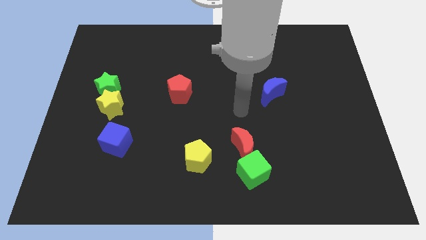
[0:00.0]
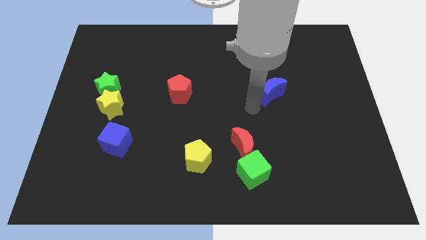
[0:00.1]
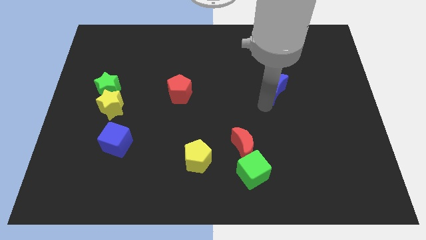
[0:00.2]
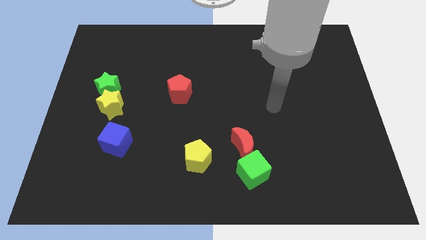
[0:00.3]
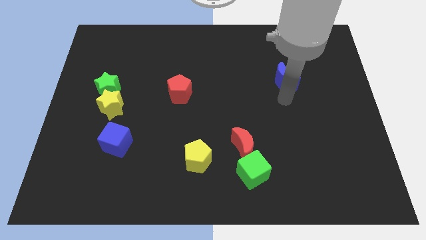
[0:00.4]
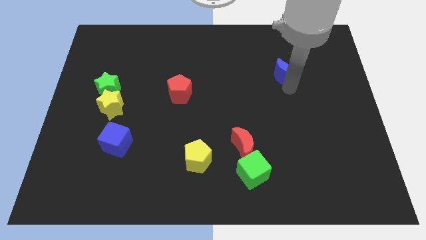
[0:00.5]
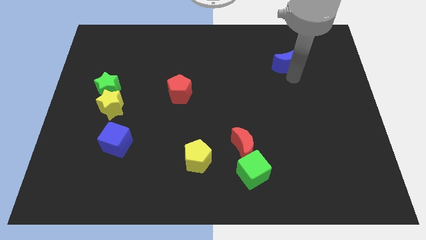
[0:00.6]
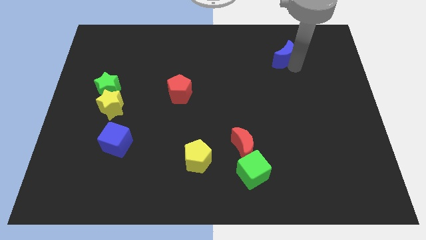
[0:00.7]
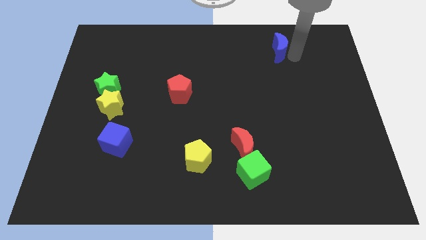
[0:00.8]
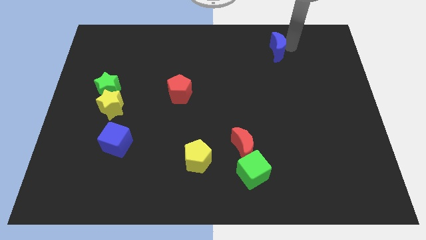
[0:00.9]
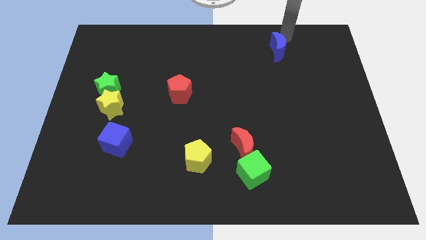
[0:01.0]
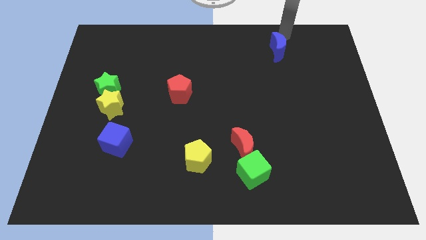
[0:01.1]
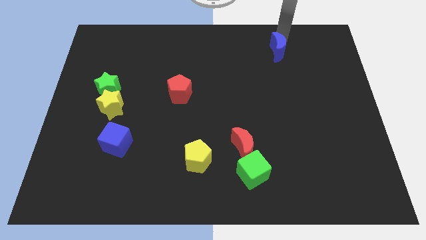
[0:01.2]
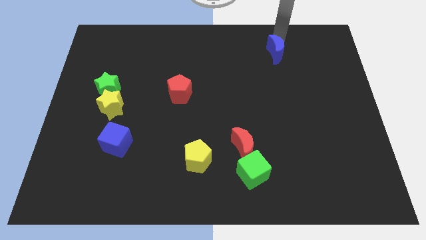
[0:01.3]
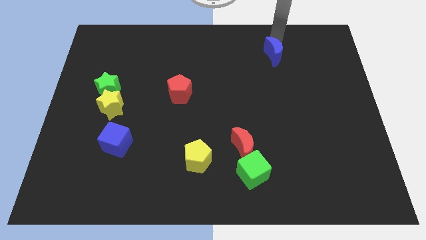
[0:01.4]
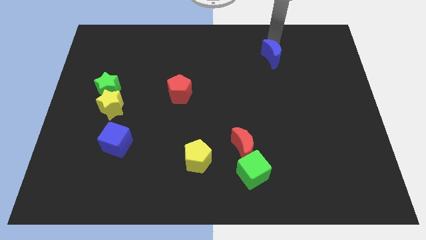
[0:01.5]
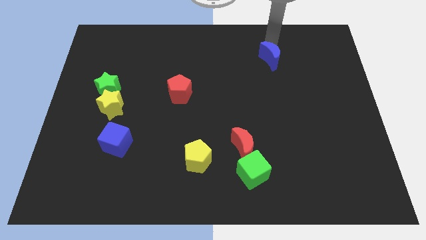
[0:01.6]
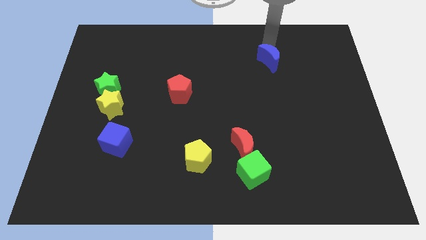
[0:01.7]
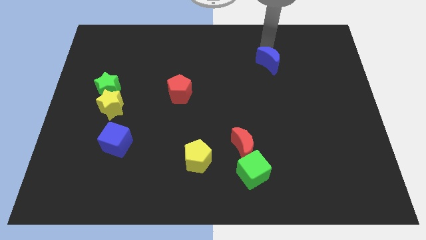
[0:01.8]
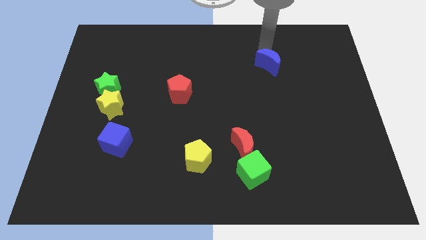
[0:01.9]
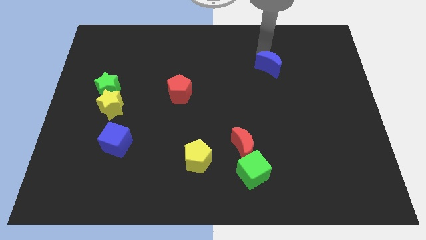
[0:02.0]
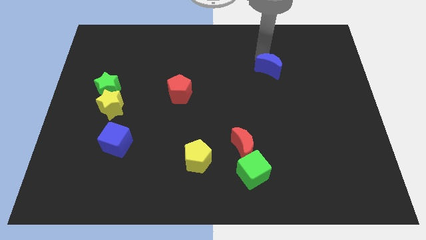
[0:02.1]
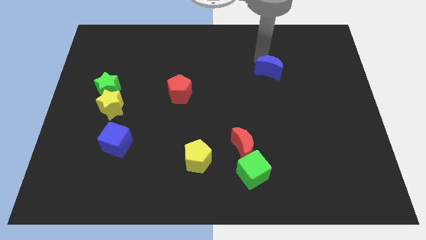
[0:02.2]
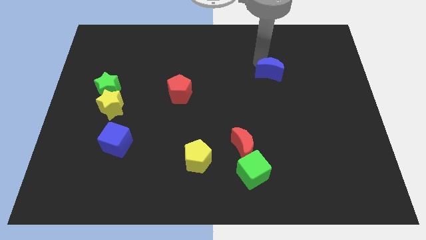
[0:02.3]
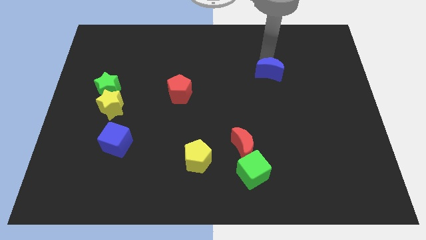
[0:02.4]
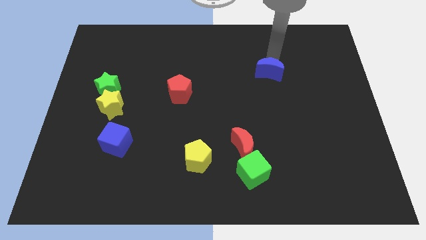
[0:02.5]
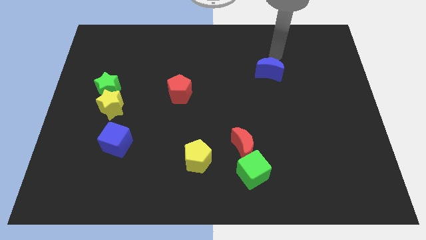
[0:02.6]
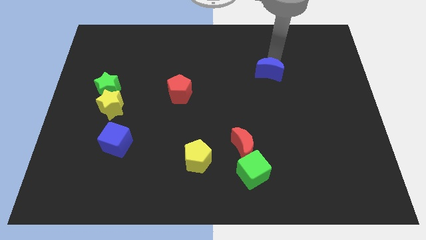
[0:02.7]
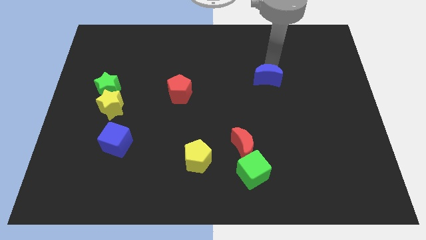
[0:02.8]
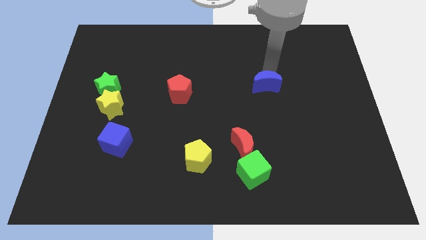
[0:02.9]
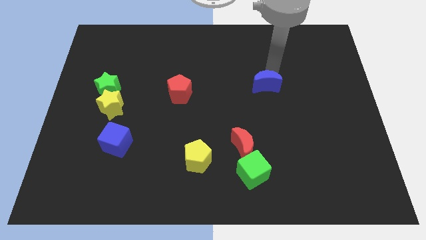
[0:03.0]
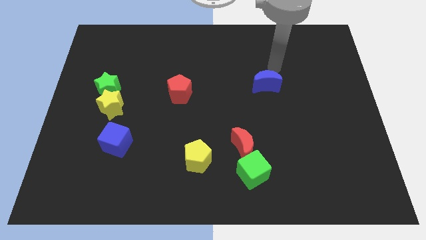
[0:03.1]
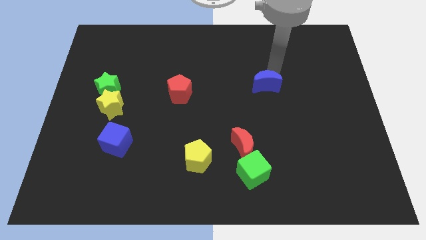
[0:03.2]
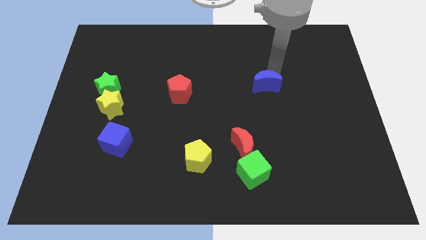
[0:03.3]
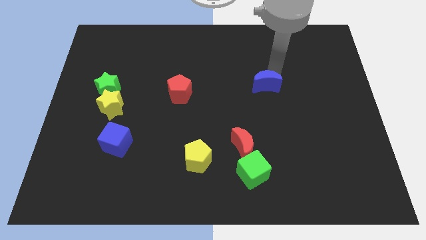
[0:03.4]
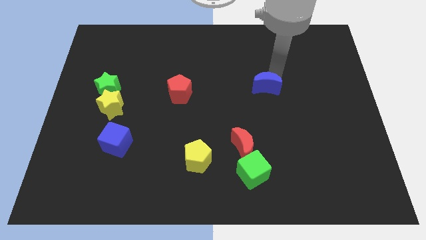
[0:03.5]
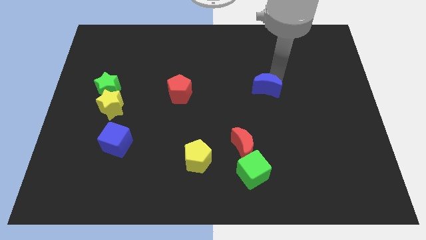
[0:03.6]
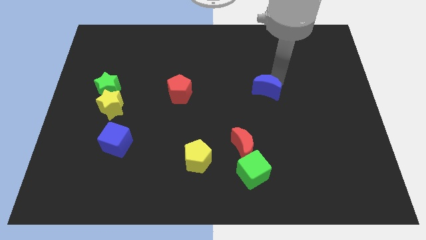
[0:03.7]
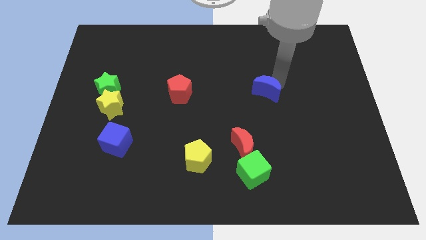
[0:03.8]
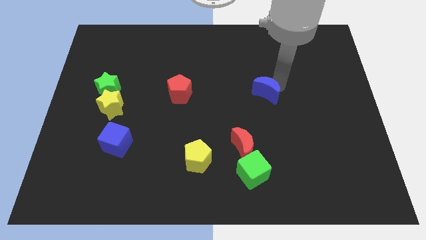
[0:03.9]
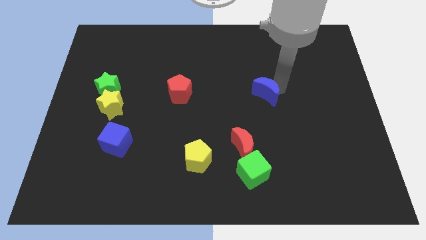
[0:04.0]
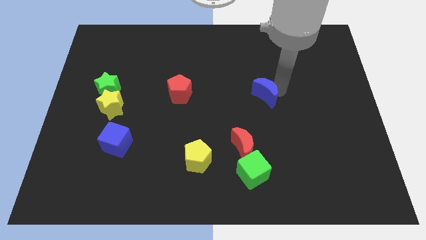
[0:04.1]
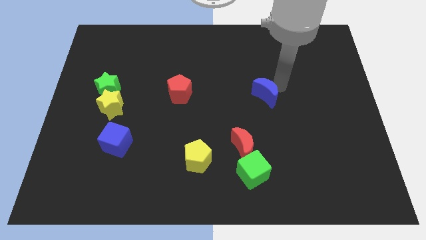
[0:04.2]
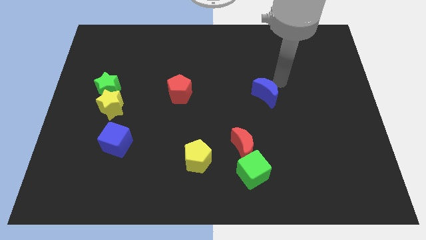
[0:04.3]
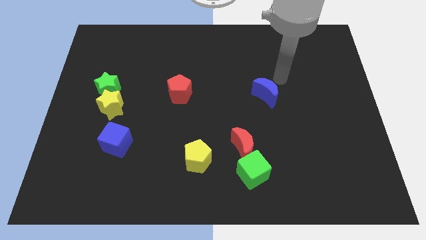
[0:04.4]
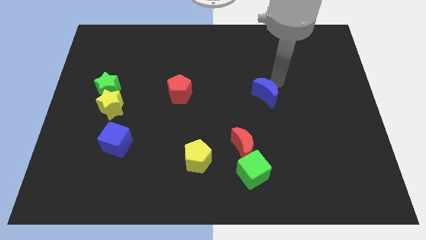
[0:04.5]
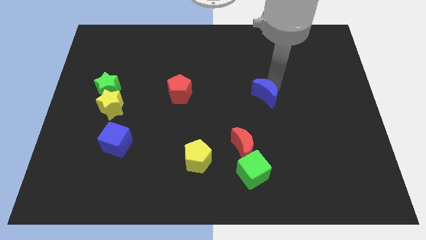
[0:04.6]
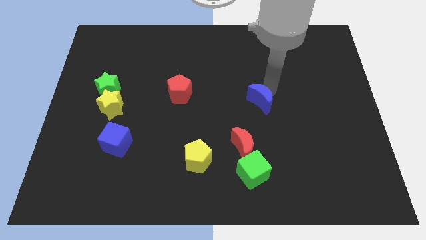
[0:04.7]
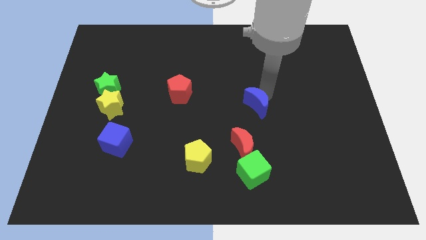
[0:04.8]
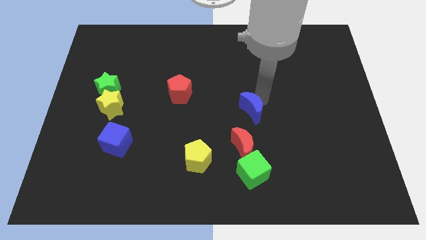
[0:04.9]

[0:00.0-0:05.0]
slightly slide the blue moon downwards and then left

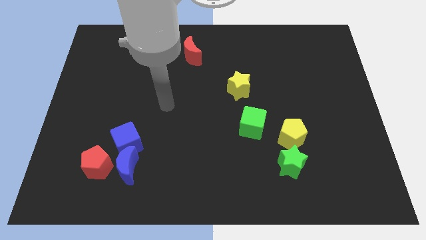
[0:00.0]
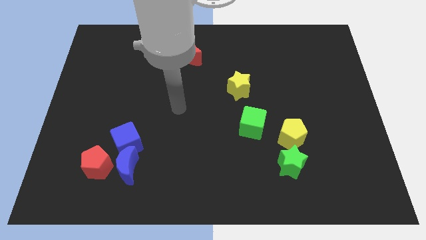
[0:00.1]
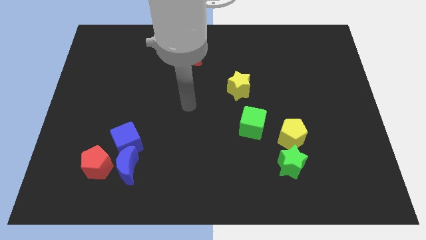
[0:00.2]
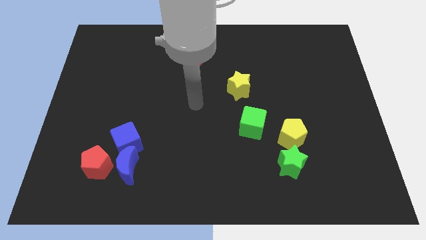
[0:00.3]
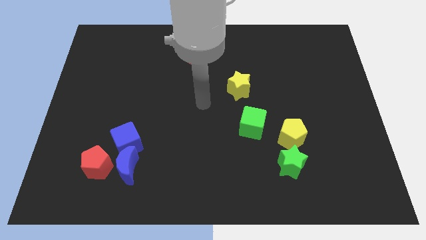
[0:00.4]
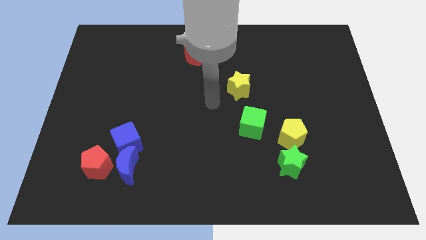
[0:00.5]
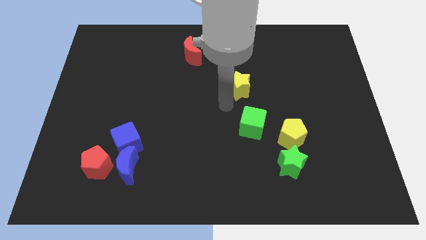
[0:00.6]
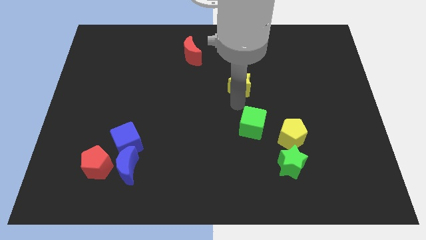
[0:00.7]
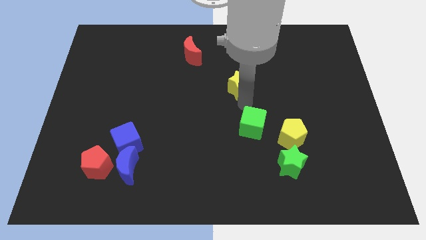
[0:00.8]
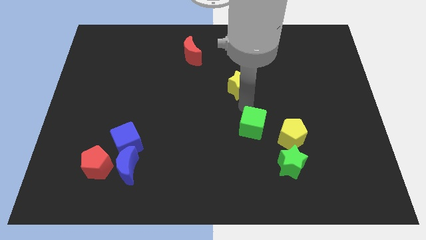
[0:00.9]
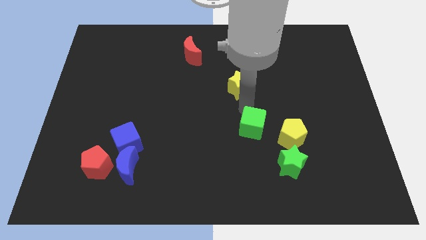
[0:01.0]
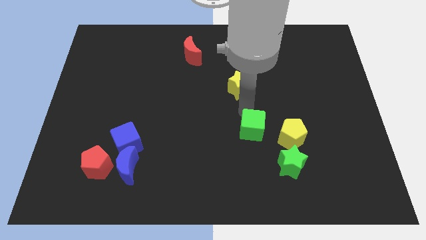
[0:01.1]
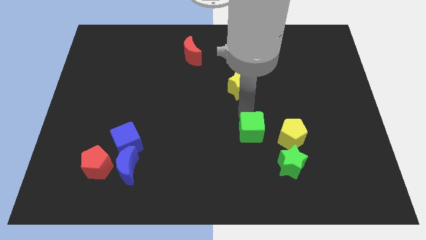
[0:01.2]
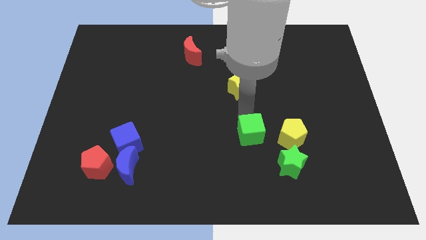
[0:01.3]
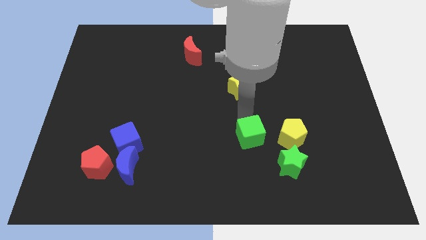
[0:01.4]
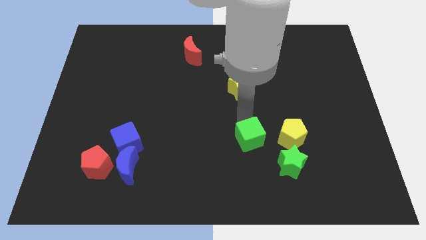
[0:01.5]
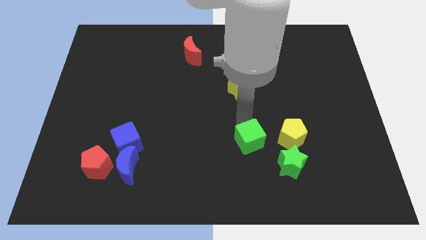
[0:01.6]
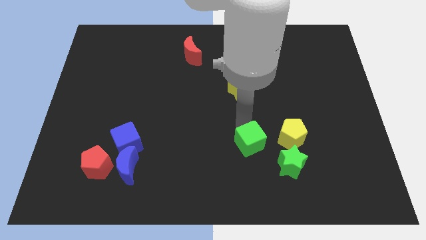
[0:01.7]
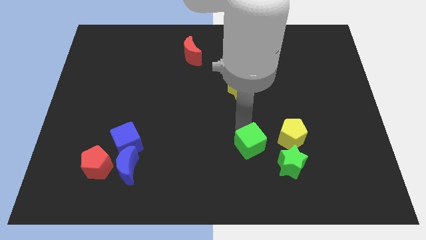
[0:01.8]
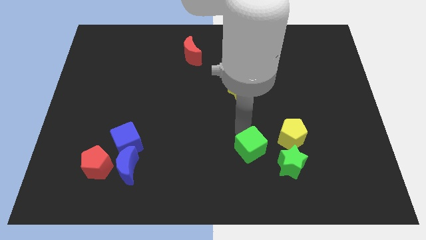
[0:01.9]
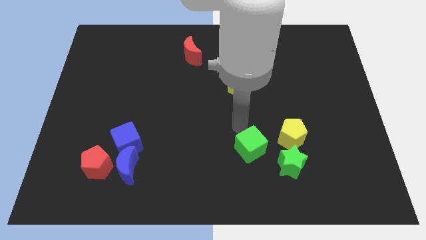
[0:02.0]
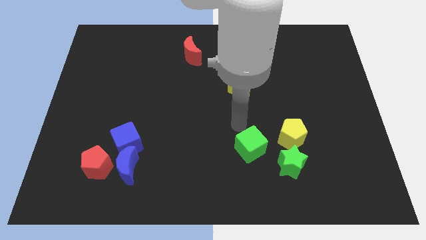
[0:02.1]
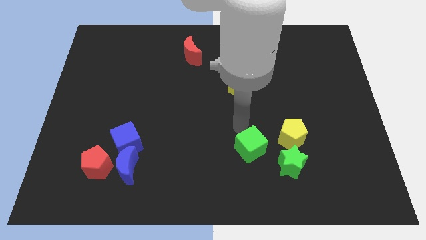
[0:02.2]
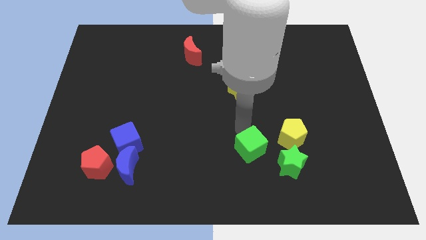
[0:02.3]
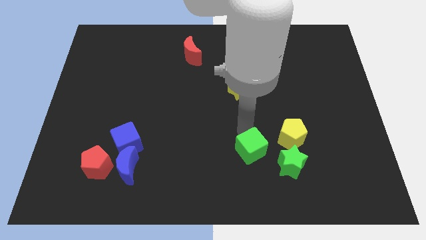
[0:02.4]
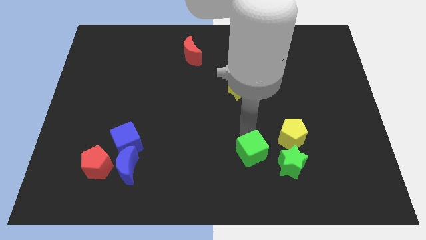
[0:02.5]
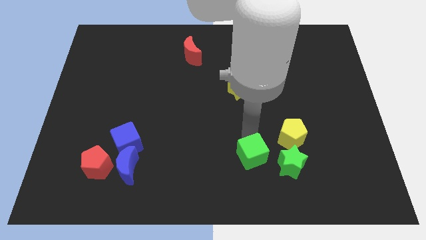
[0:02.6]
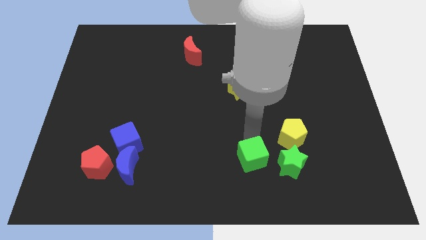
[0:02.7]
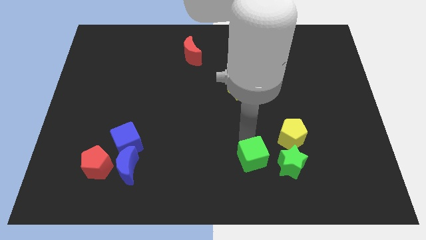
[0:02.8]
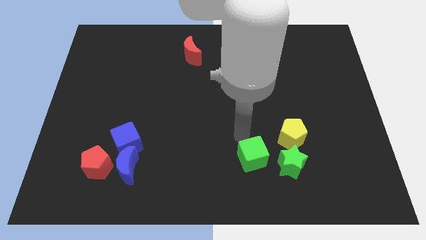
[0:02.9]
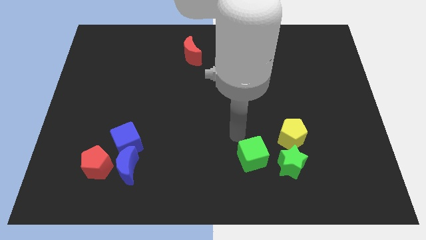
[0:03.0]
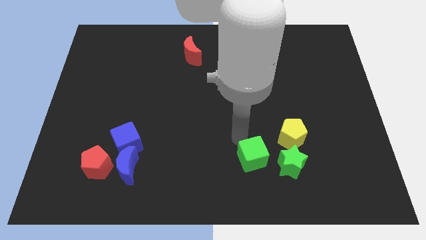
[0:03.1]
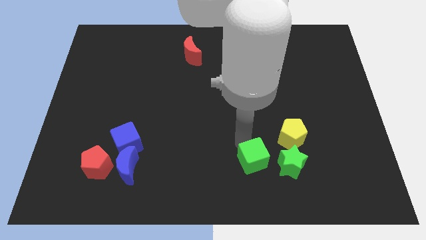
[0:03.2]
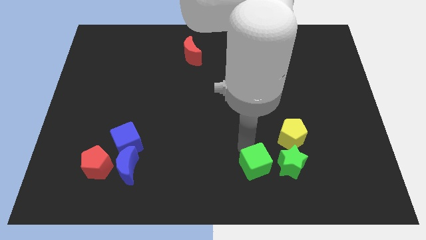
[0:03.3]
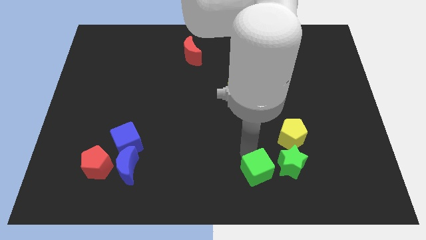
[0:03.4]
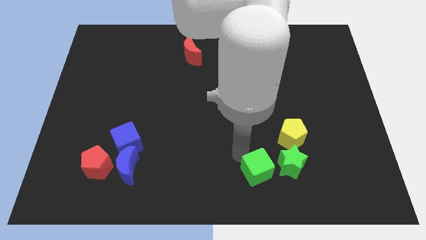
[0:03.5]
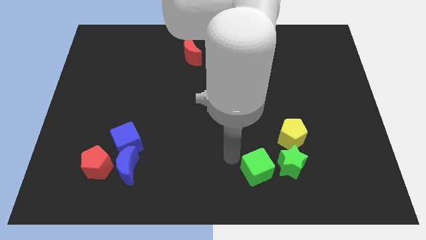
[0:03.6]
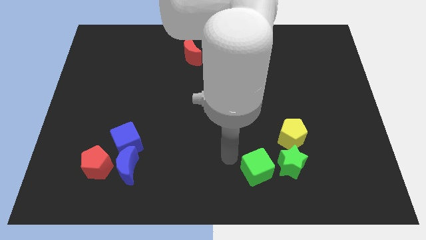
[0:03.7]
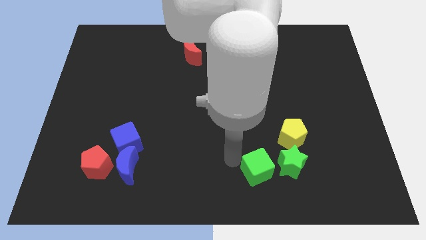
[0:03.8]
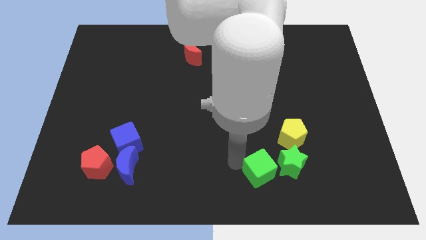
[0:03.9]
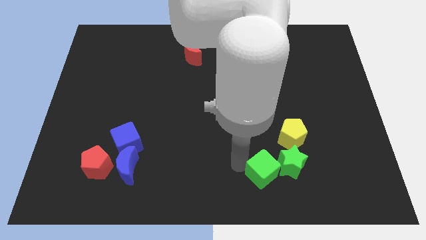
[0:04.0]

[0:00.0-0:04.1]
slightly slide the green cube diagonally down and to the right
